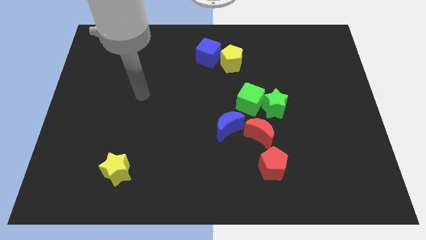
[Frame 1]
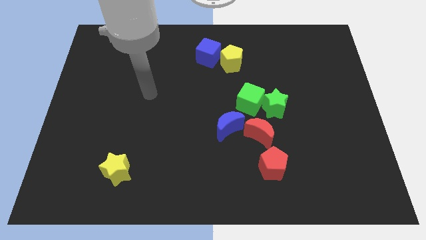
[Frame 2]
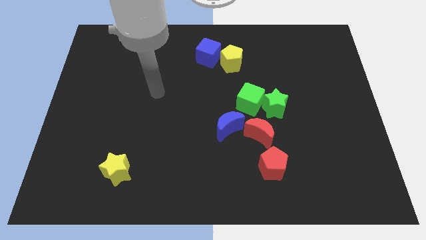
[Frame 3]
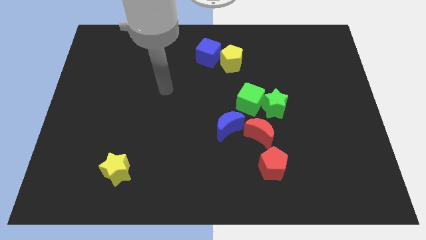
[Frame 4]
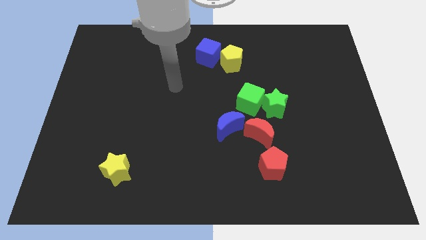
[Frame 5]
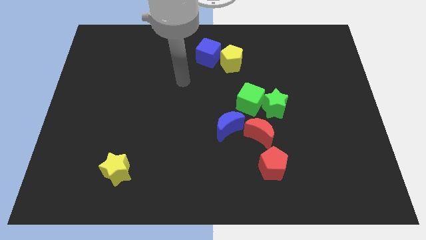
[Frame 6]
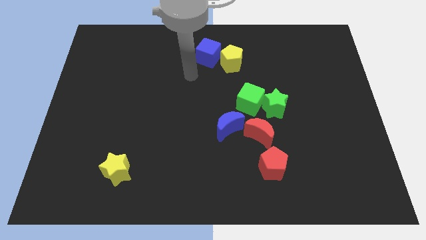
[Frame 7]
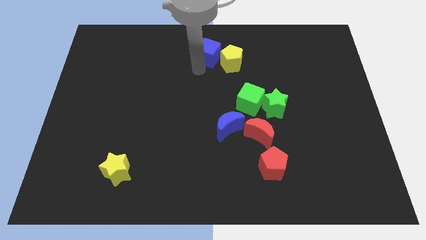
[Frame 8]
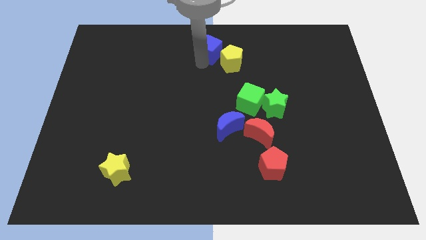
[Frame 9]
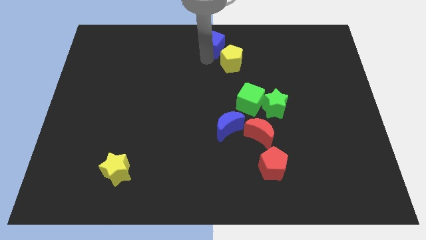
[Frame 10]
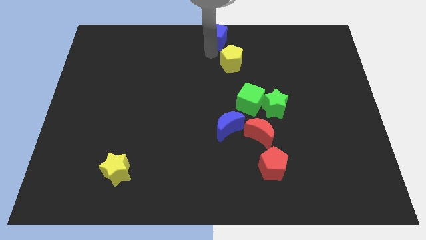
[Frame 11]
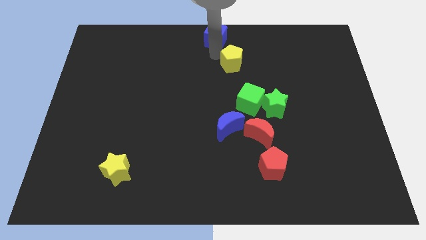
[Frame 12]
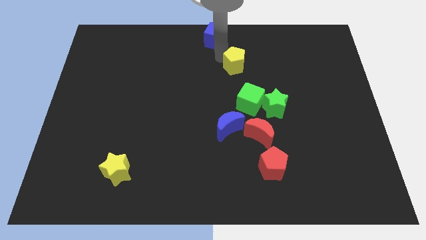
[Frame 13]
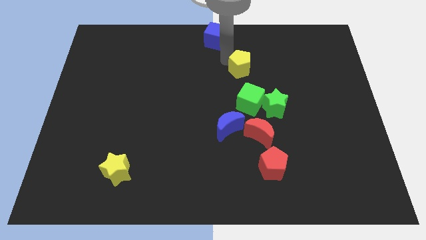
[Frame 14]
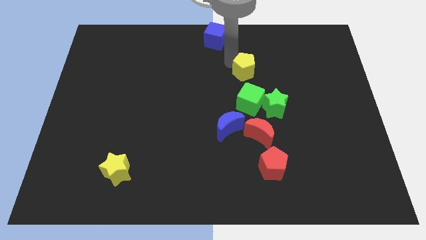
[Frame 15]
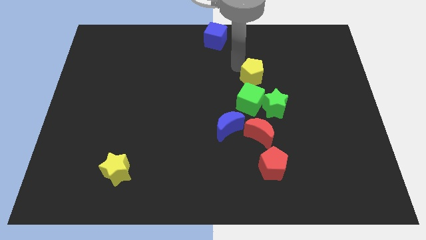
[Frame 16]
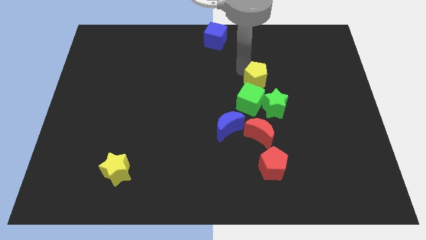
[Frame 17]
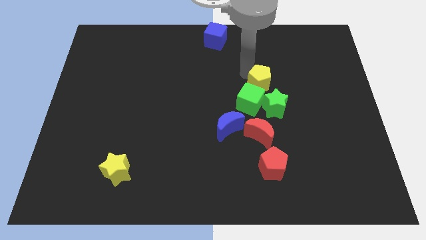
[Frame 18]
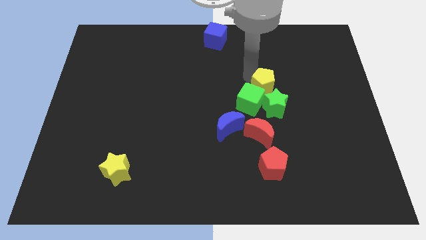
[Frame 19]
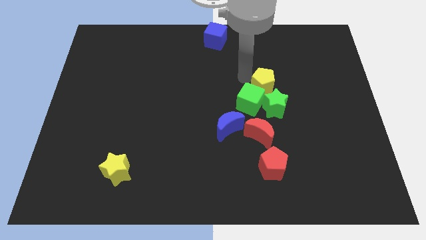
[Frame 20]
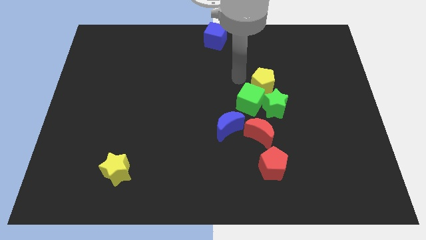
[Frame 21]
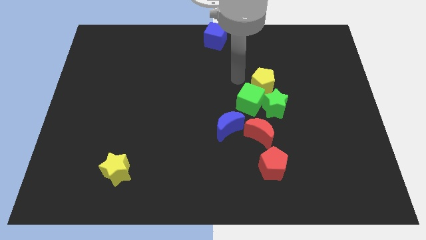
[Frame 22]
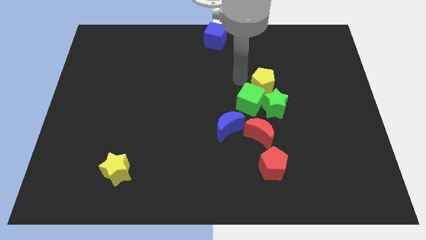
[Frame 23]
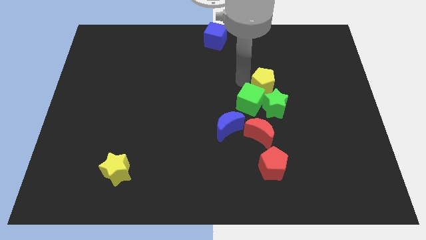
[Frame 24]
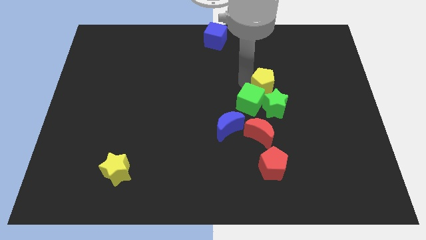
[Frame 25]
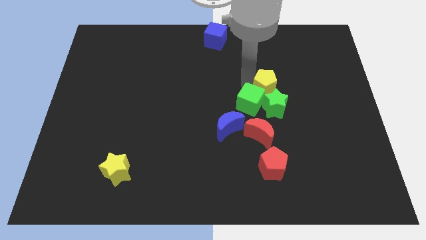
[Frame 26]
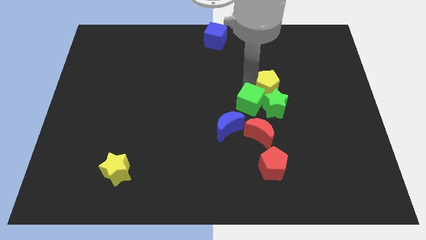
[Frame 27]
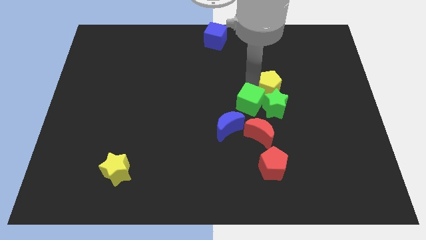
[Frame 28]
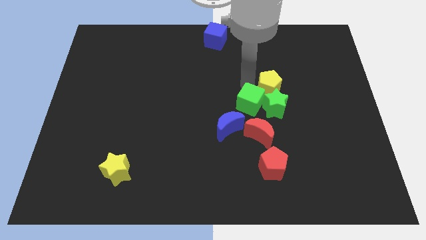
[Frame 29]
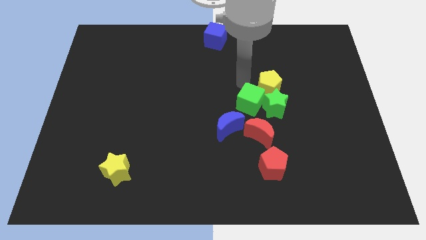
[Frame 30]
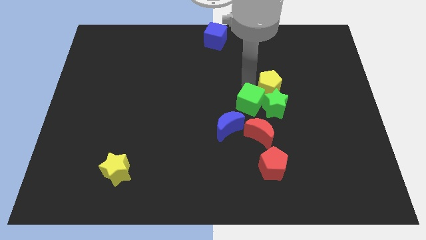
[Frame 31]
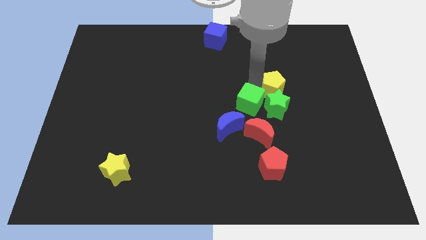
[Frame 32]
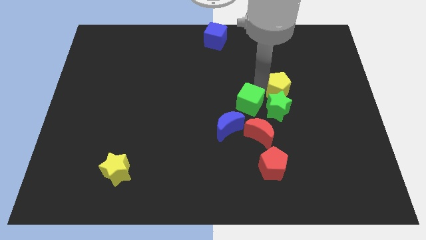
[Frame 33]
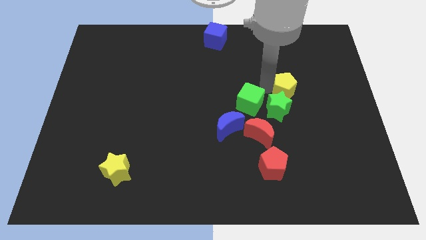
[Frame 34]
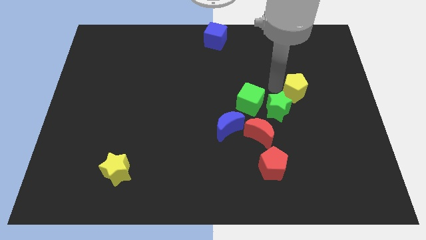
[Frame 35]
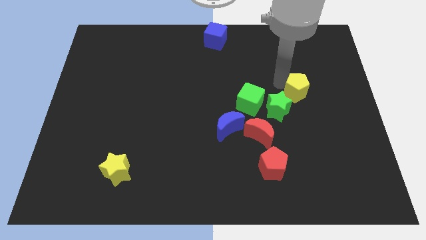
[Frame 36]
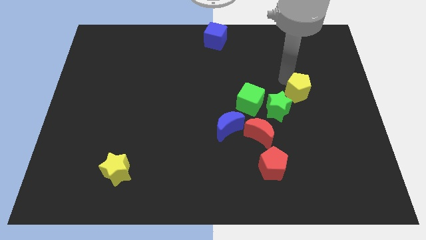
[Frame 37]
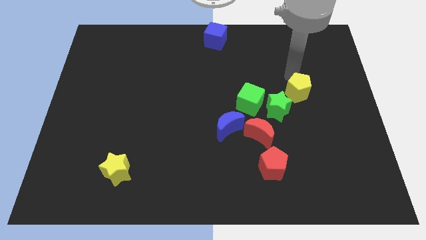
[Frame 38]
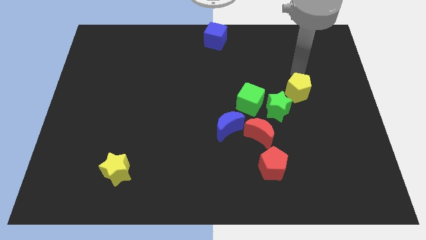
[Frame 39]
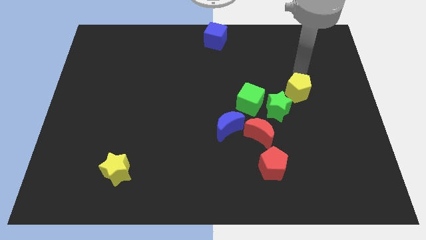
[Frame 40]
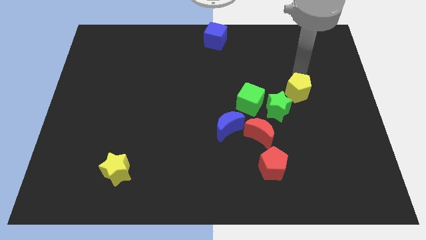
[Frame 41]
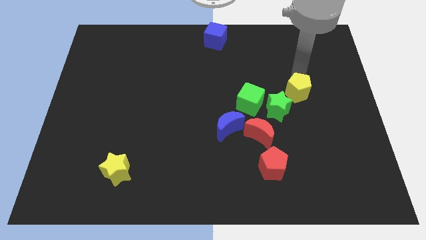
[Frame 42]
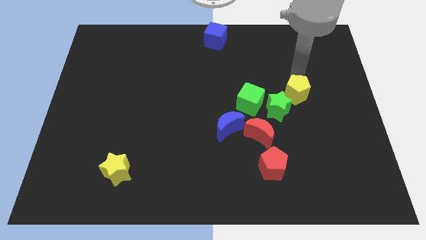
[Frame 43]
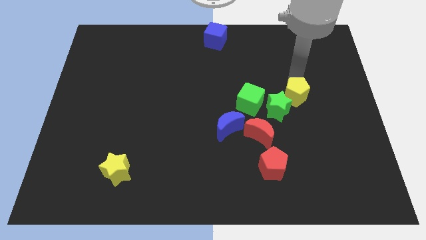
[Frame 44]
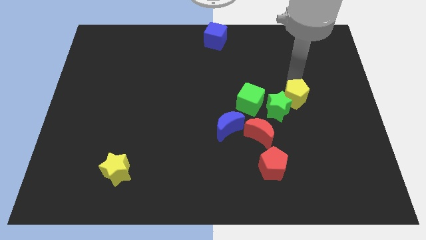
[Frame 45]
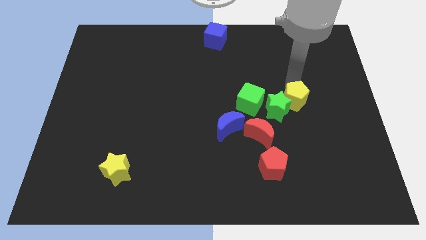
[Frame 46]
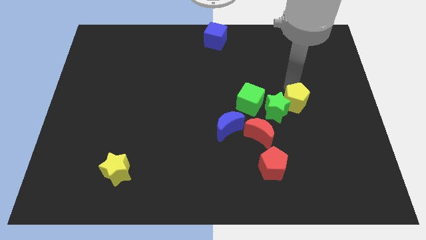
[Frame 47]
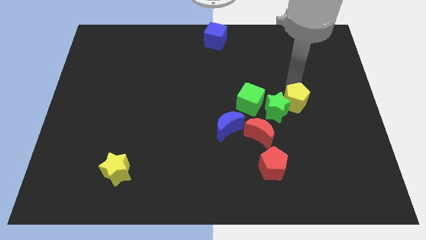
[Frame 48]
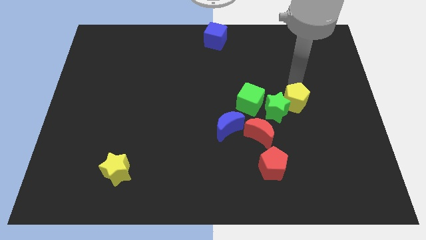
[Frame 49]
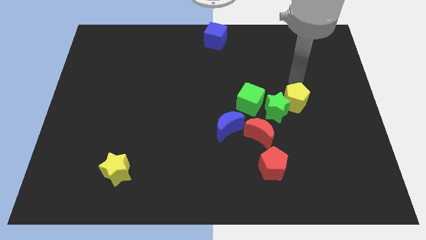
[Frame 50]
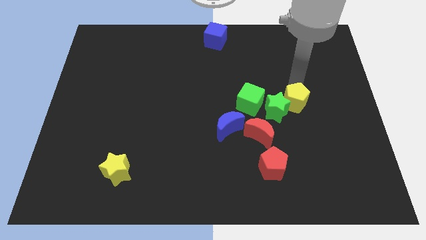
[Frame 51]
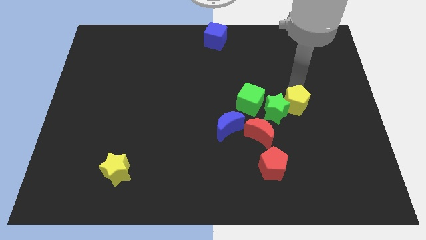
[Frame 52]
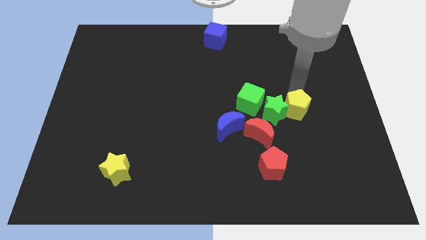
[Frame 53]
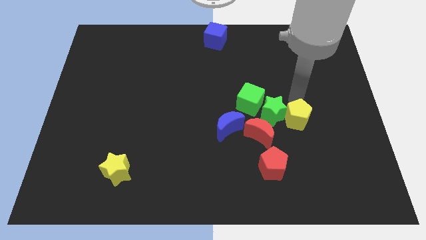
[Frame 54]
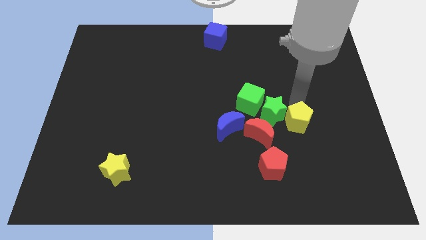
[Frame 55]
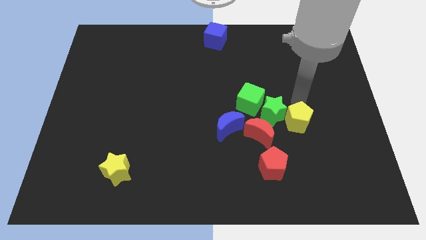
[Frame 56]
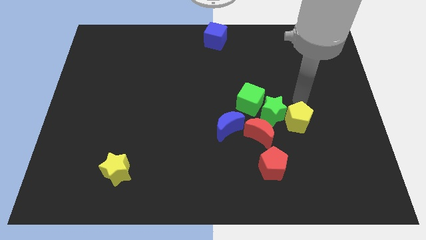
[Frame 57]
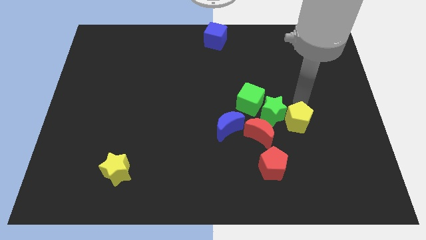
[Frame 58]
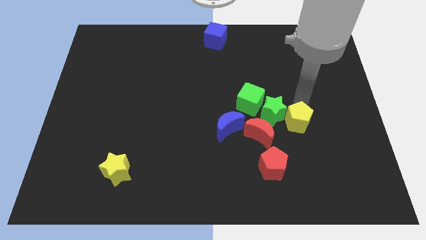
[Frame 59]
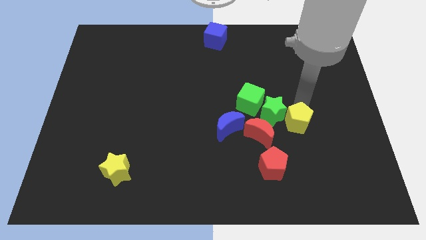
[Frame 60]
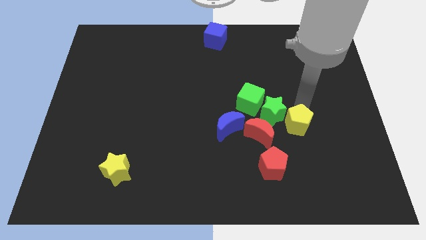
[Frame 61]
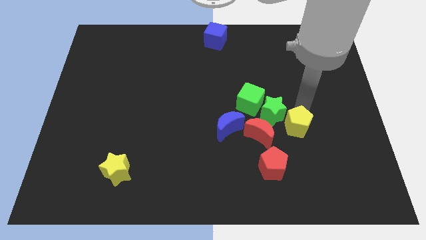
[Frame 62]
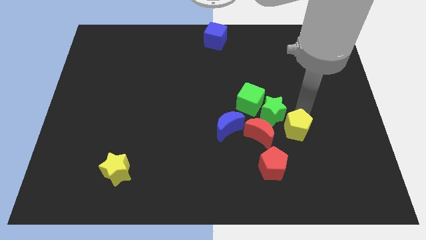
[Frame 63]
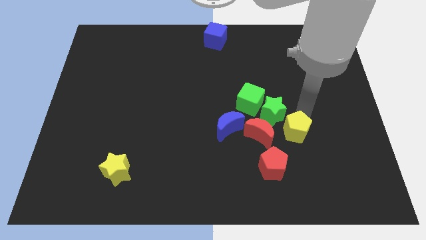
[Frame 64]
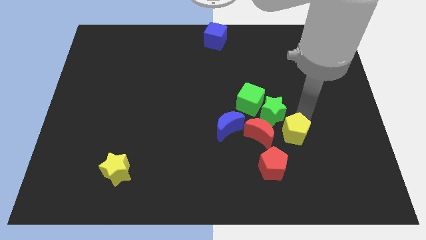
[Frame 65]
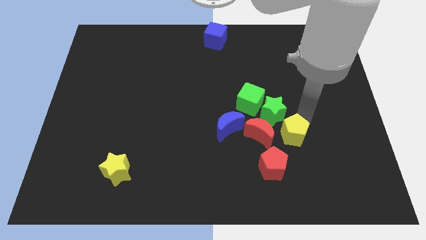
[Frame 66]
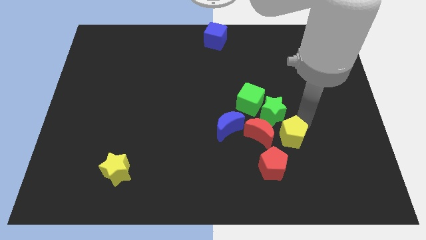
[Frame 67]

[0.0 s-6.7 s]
put the yellow pentagon to the bottom right of the red moon

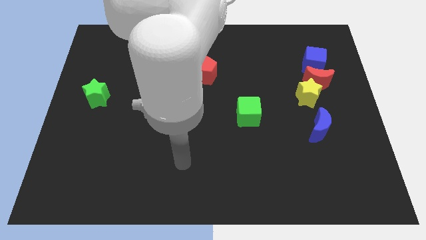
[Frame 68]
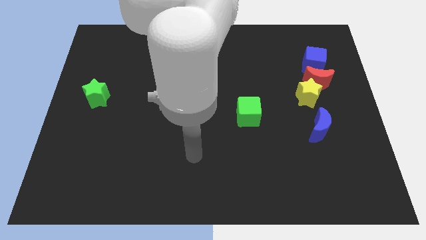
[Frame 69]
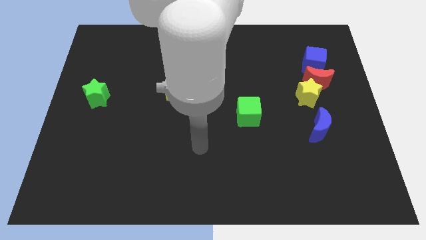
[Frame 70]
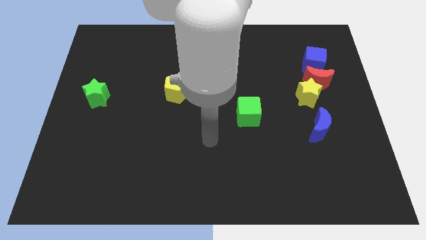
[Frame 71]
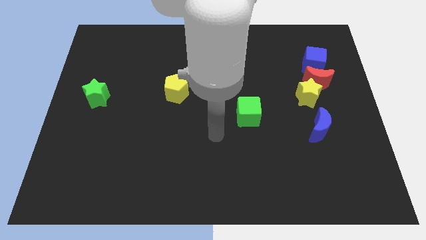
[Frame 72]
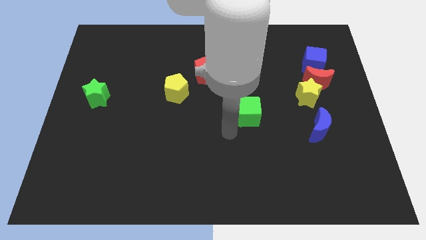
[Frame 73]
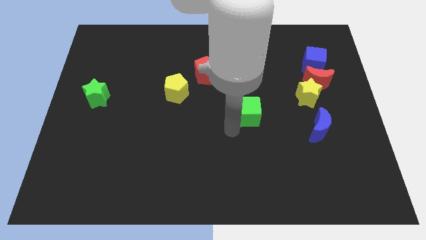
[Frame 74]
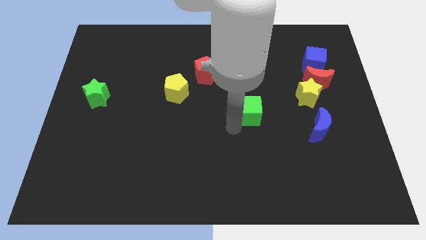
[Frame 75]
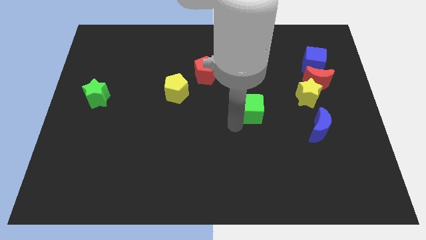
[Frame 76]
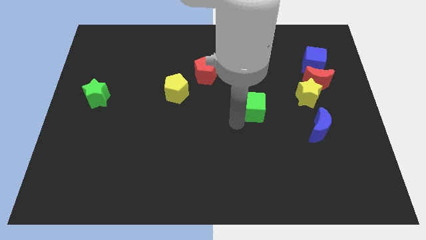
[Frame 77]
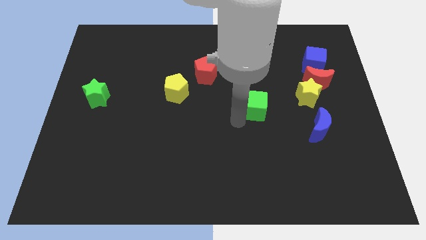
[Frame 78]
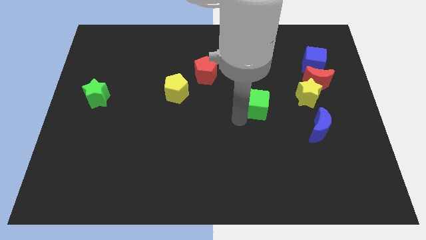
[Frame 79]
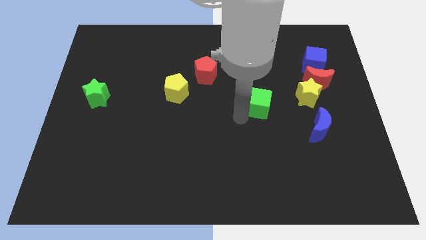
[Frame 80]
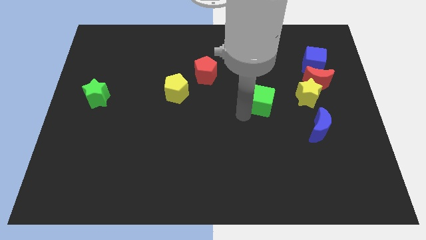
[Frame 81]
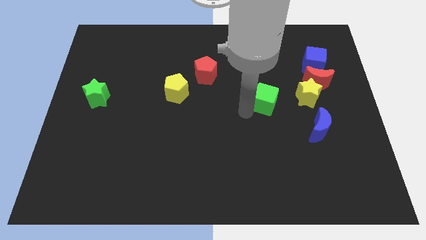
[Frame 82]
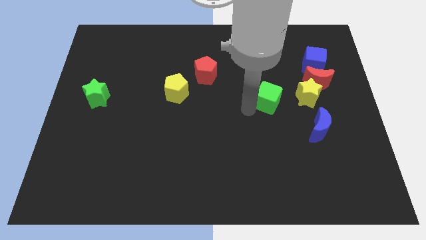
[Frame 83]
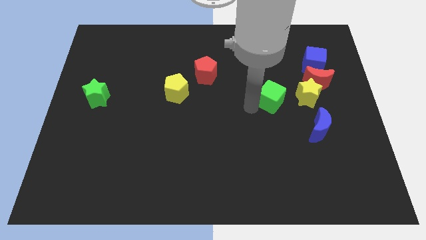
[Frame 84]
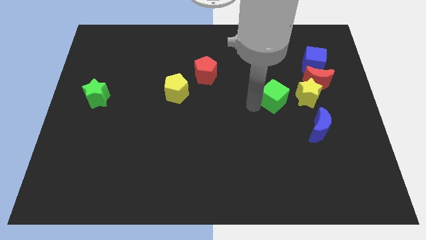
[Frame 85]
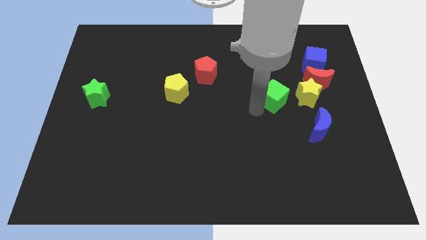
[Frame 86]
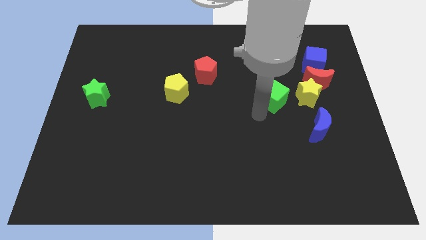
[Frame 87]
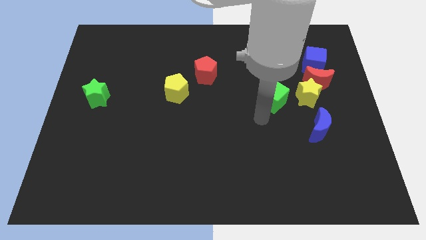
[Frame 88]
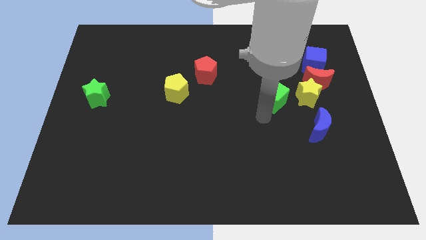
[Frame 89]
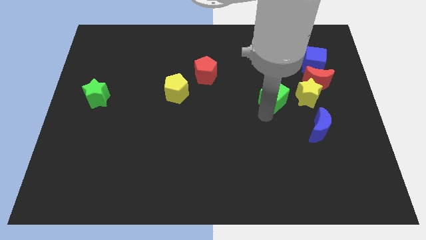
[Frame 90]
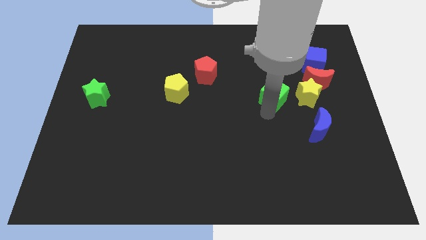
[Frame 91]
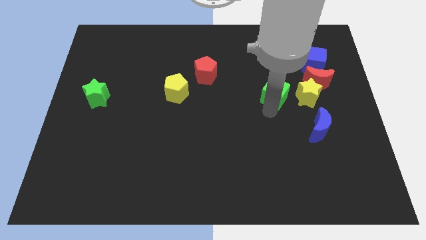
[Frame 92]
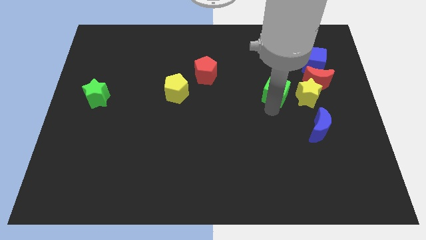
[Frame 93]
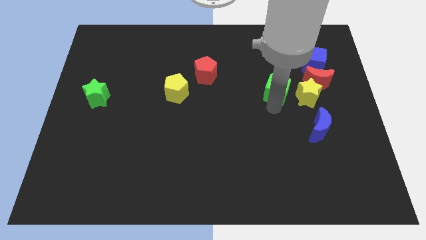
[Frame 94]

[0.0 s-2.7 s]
push the green cube diagonally up and to the left of the yellow star
